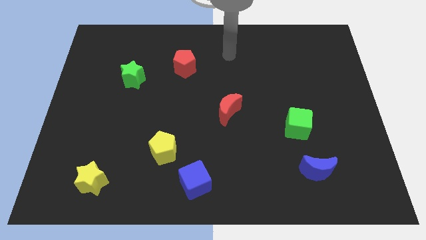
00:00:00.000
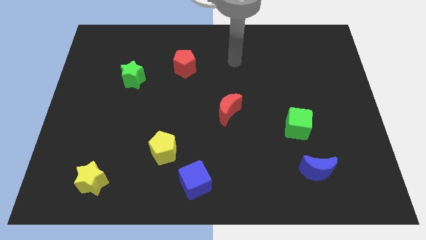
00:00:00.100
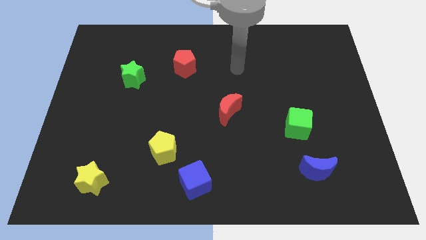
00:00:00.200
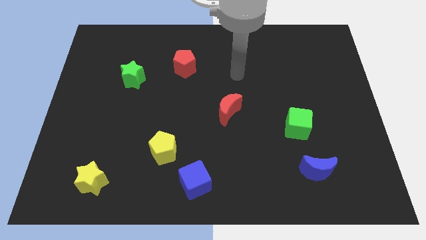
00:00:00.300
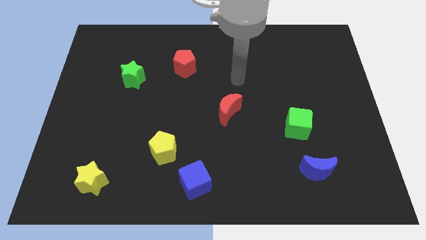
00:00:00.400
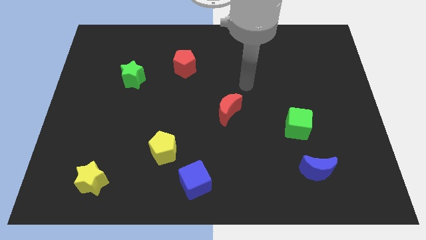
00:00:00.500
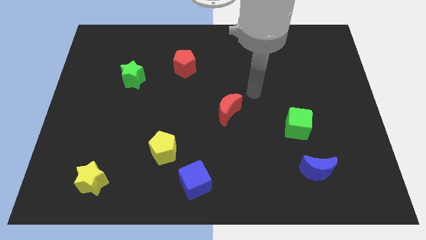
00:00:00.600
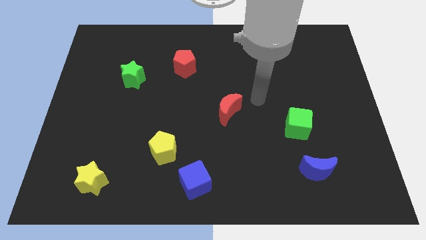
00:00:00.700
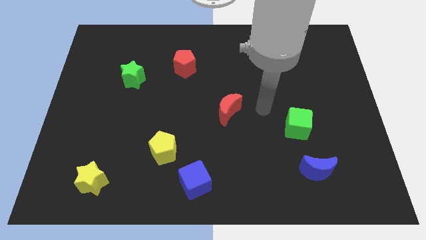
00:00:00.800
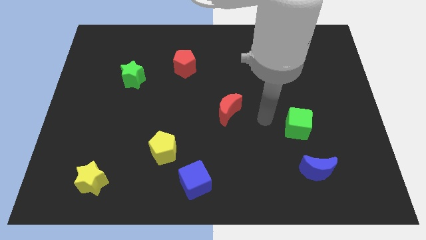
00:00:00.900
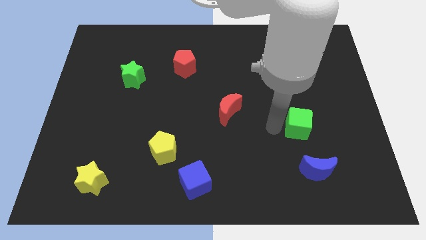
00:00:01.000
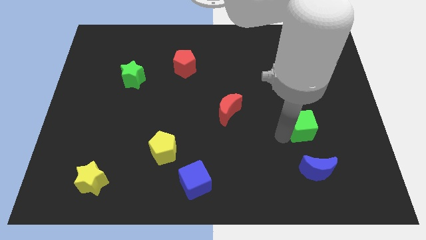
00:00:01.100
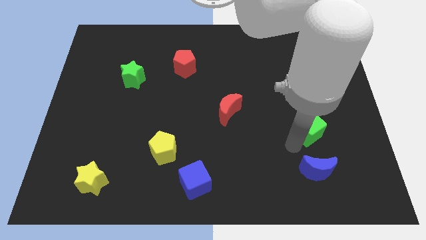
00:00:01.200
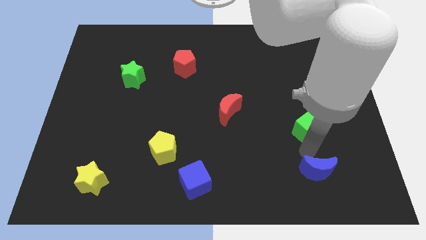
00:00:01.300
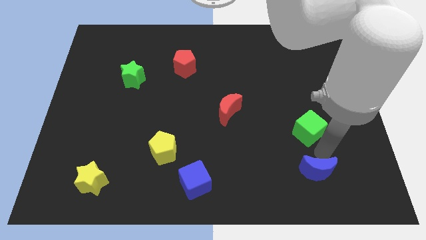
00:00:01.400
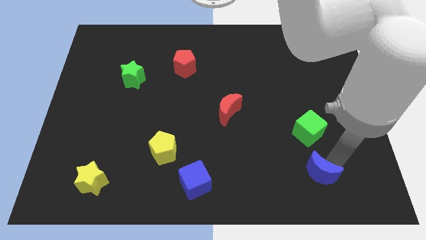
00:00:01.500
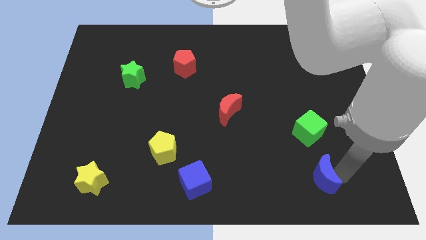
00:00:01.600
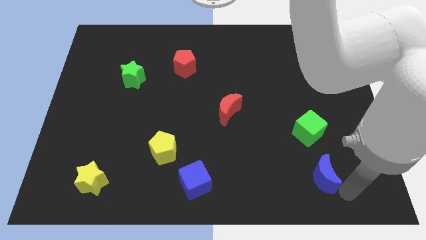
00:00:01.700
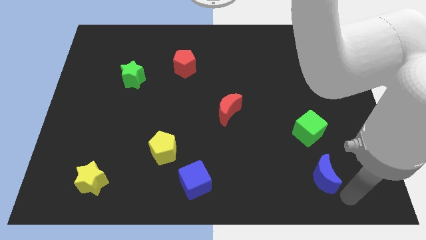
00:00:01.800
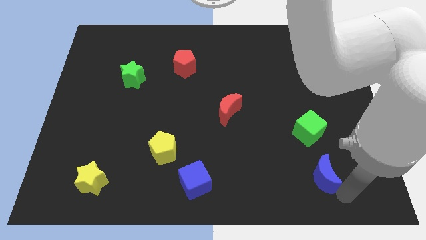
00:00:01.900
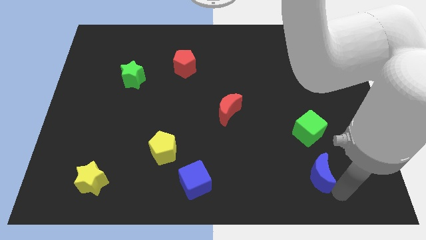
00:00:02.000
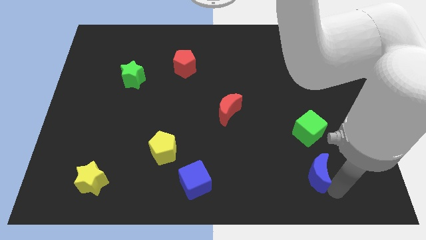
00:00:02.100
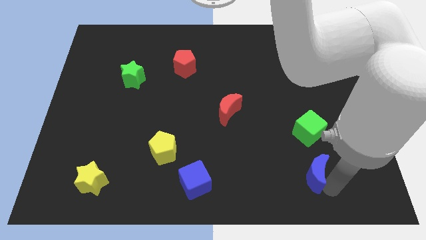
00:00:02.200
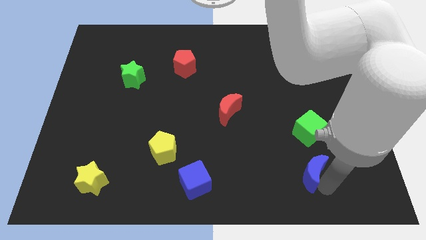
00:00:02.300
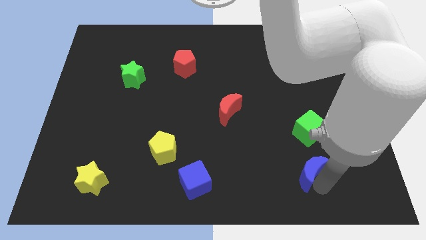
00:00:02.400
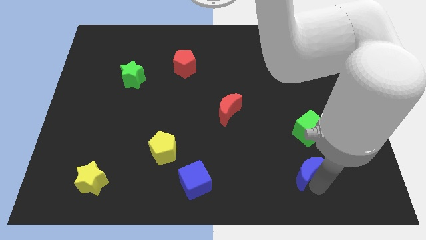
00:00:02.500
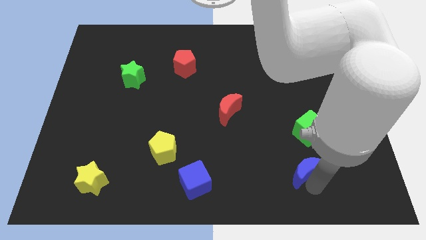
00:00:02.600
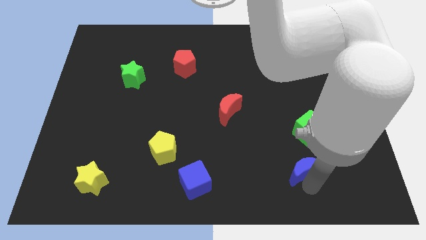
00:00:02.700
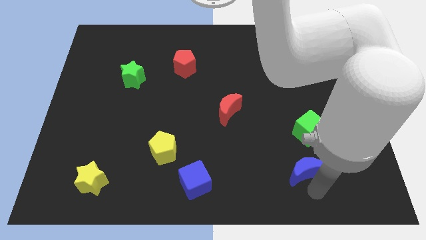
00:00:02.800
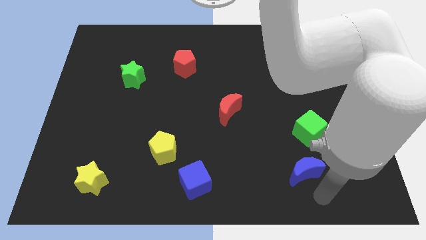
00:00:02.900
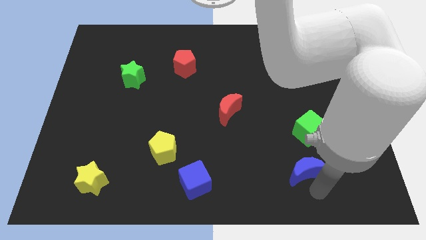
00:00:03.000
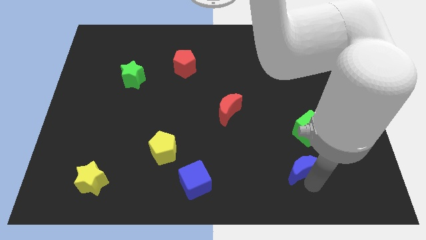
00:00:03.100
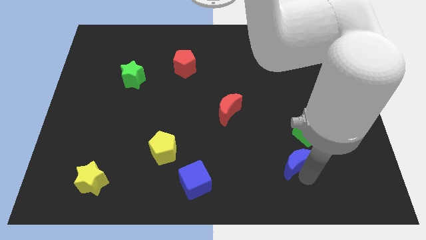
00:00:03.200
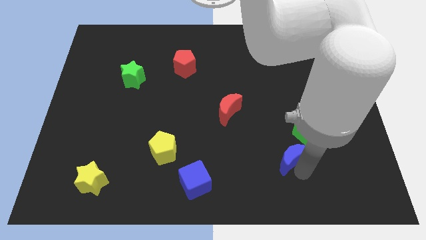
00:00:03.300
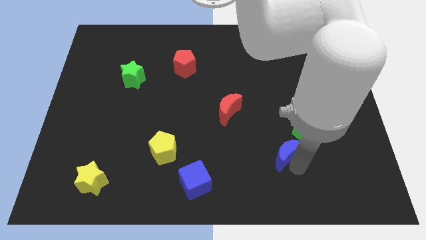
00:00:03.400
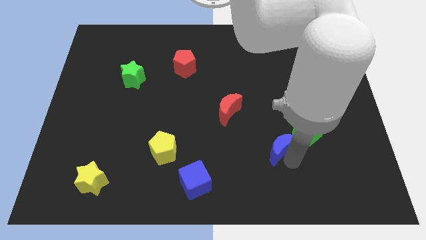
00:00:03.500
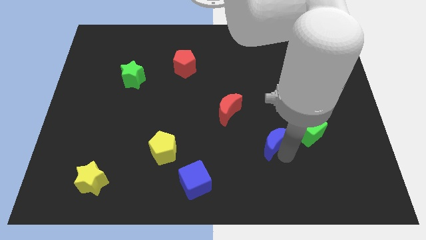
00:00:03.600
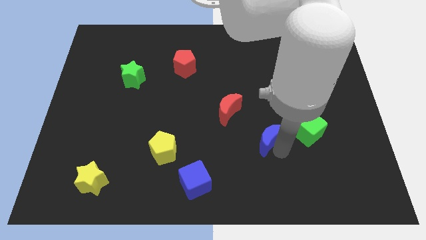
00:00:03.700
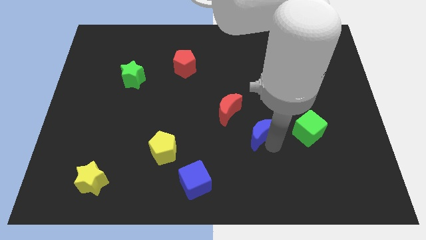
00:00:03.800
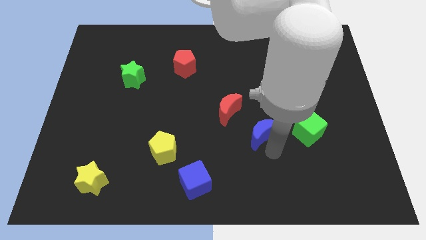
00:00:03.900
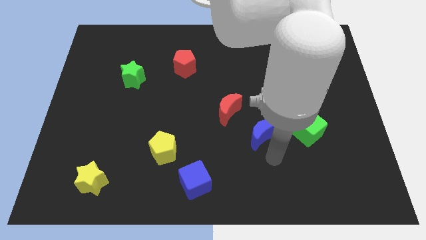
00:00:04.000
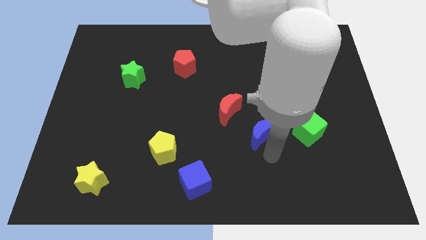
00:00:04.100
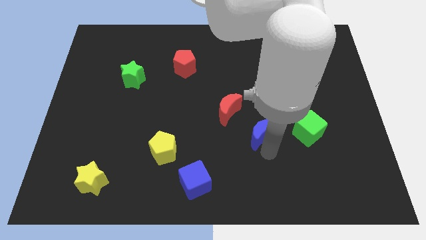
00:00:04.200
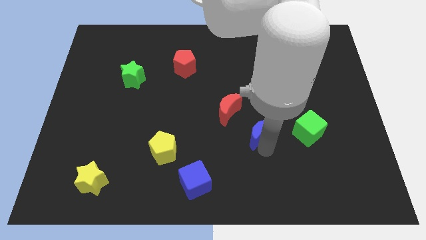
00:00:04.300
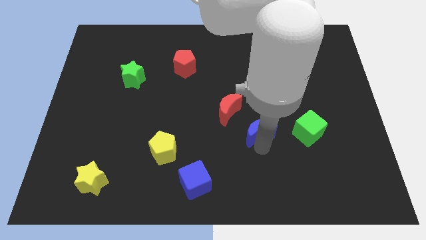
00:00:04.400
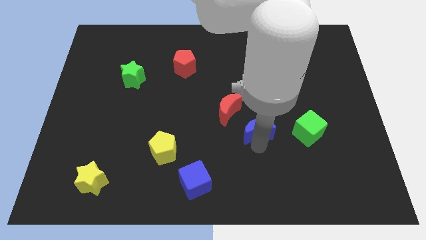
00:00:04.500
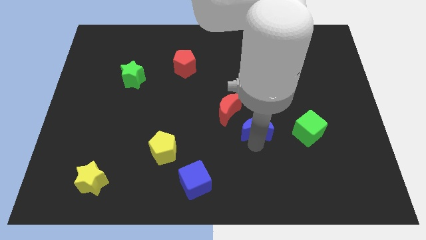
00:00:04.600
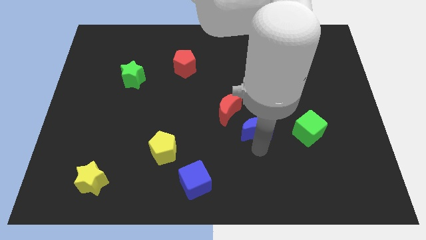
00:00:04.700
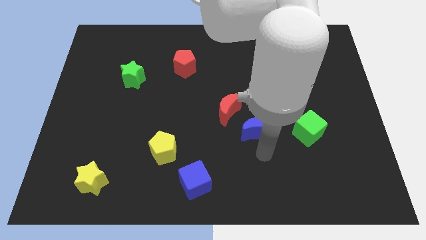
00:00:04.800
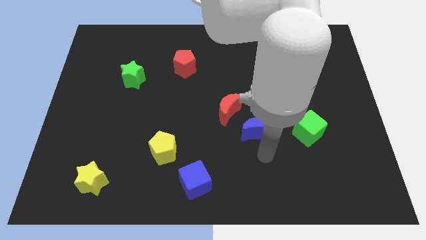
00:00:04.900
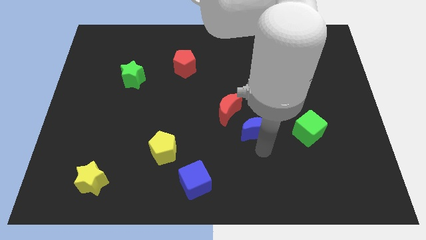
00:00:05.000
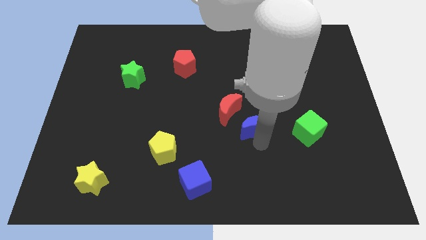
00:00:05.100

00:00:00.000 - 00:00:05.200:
move the blue moon to the middle

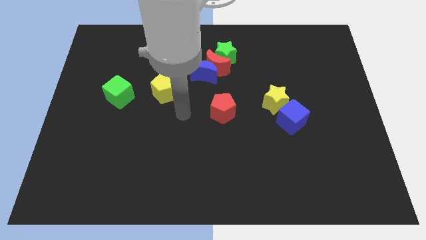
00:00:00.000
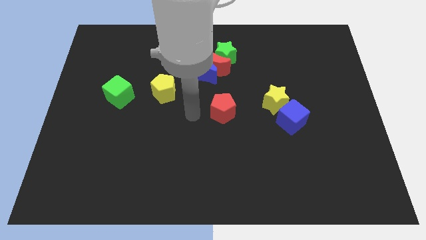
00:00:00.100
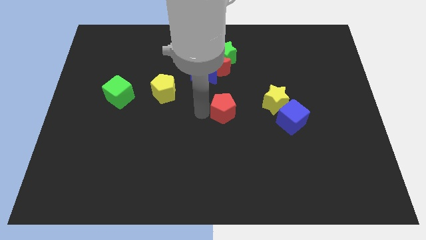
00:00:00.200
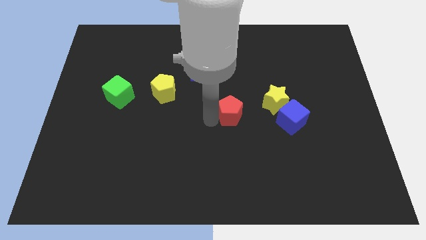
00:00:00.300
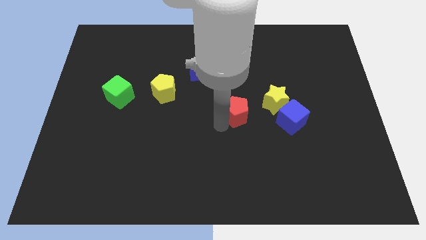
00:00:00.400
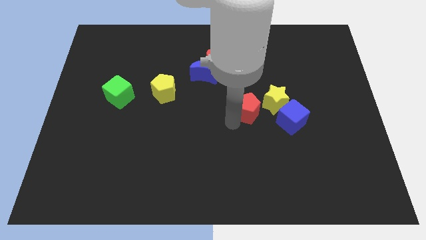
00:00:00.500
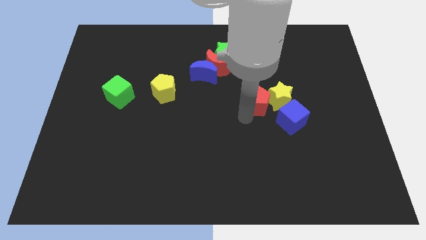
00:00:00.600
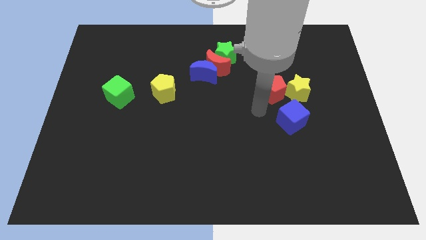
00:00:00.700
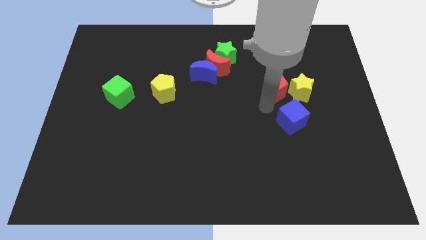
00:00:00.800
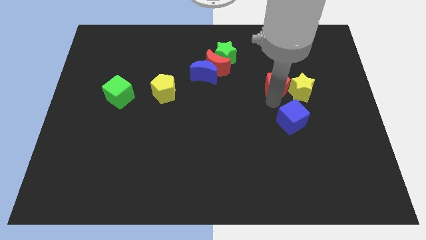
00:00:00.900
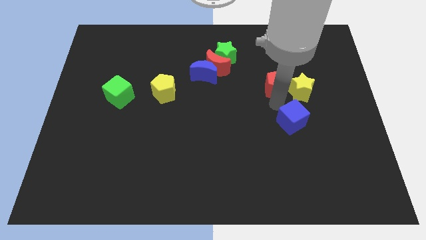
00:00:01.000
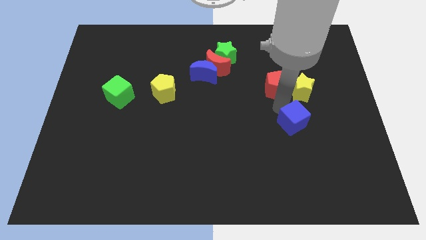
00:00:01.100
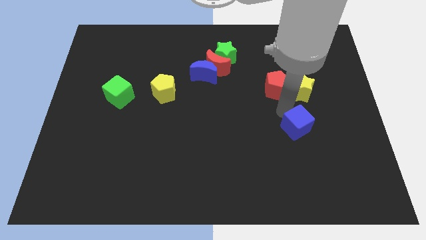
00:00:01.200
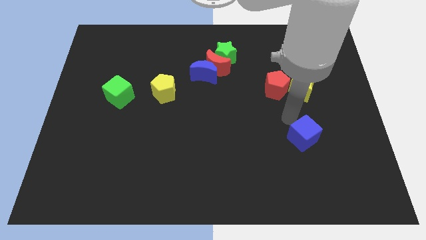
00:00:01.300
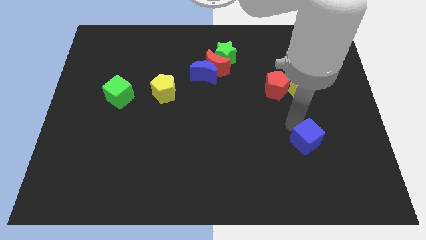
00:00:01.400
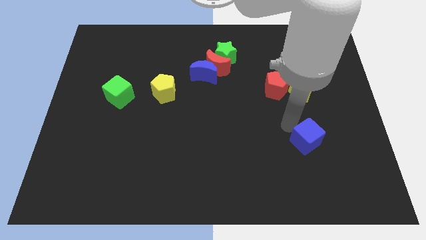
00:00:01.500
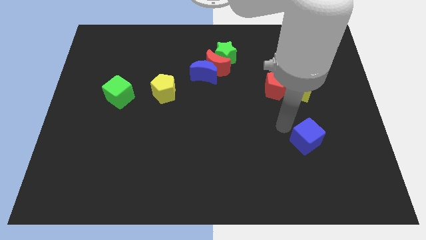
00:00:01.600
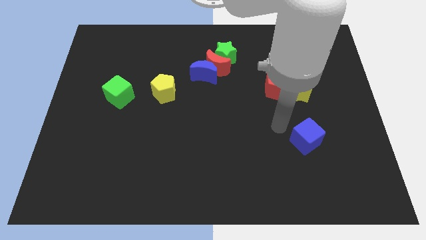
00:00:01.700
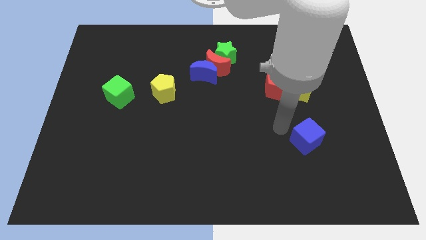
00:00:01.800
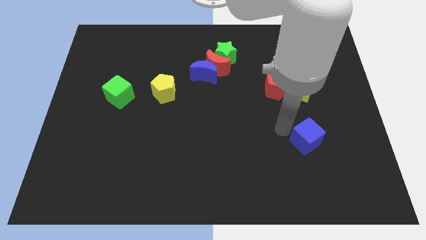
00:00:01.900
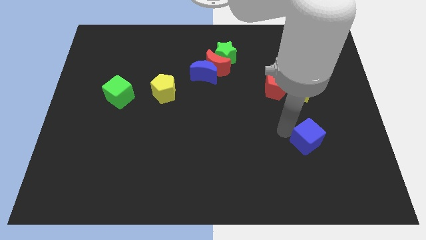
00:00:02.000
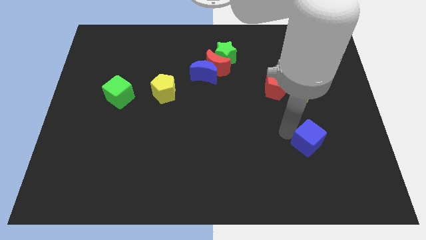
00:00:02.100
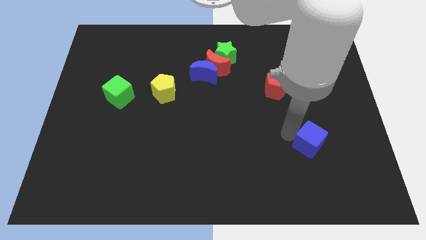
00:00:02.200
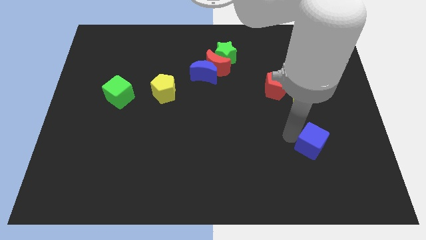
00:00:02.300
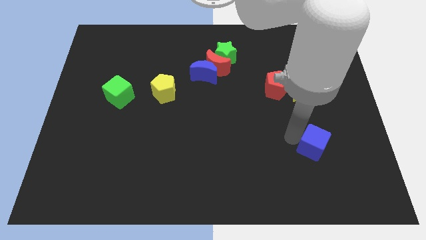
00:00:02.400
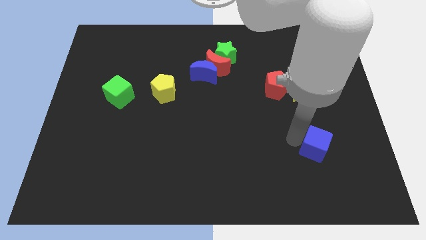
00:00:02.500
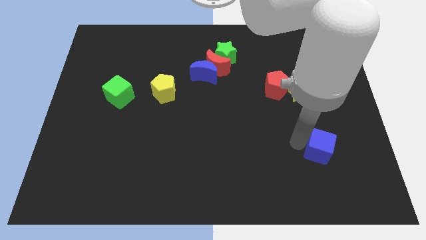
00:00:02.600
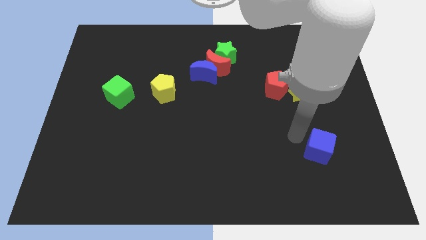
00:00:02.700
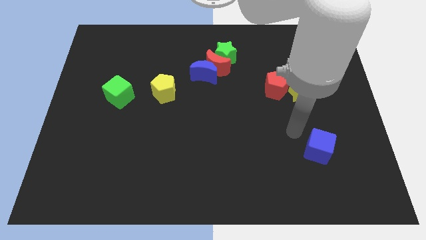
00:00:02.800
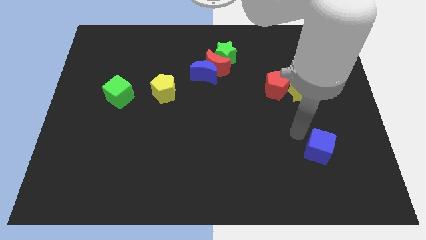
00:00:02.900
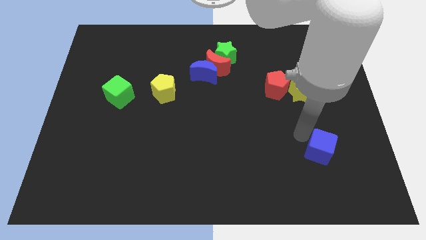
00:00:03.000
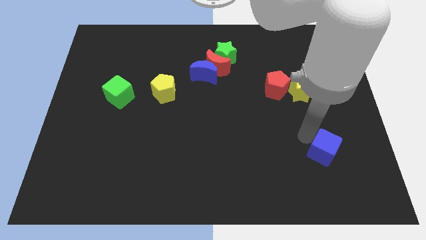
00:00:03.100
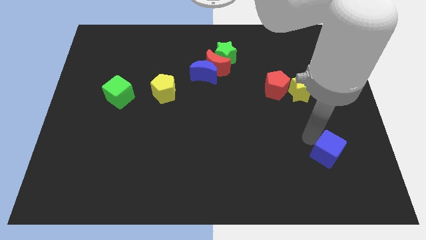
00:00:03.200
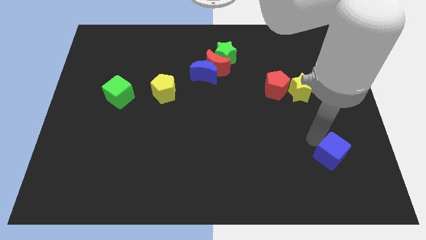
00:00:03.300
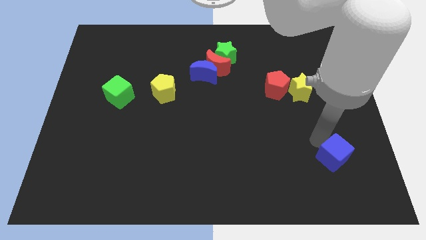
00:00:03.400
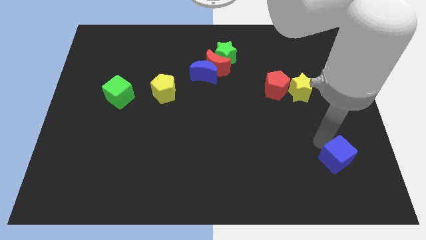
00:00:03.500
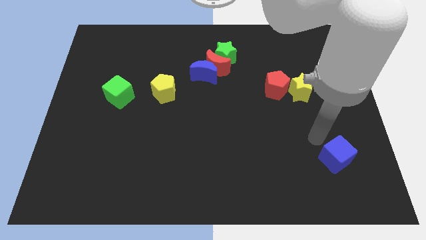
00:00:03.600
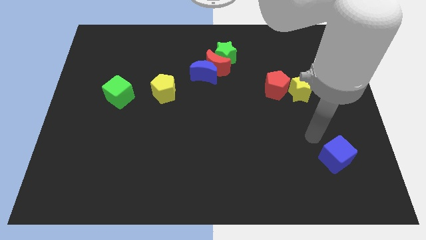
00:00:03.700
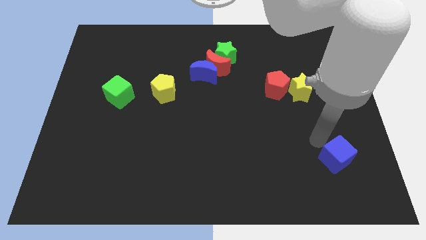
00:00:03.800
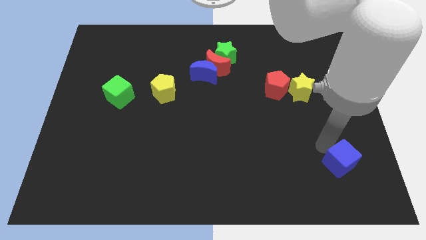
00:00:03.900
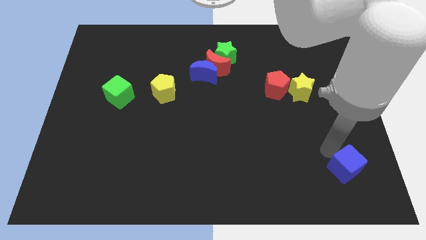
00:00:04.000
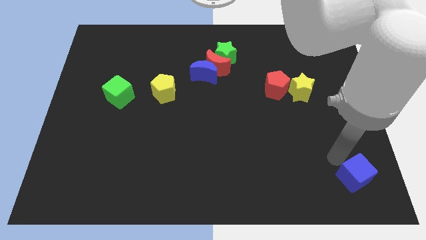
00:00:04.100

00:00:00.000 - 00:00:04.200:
slide the blue cube to the bottom right corner
